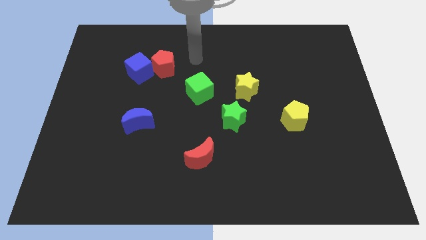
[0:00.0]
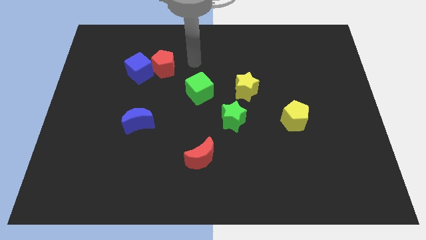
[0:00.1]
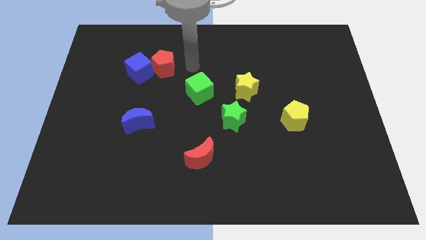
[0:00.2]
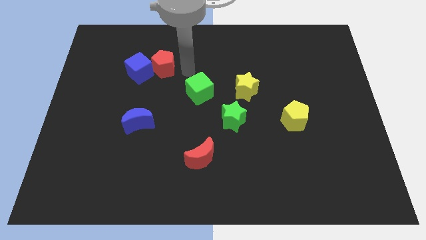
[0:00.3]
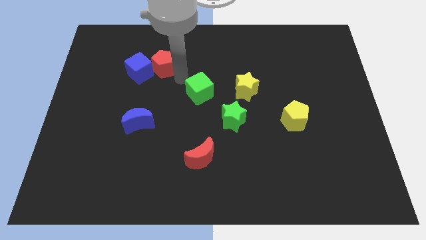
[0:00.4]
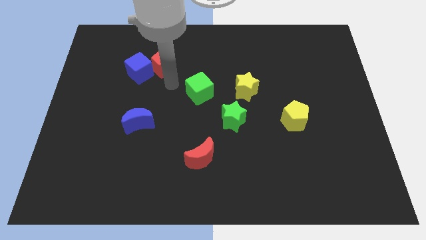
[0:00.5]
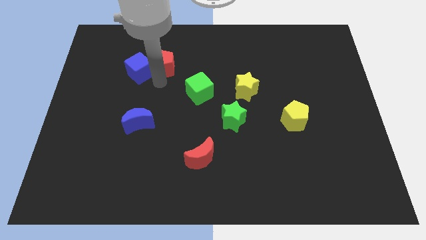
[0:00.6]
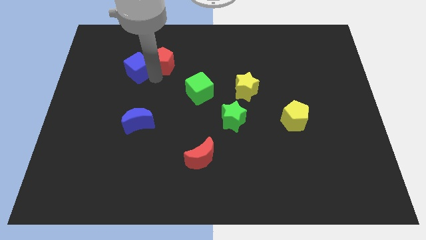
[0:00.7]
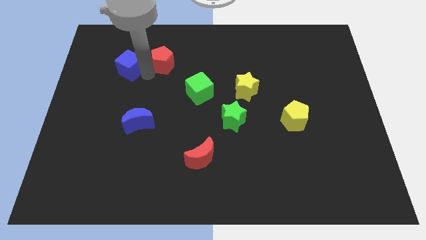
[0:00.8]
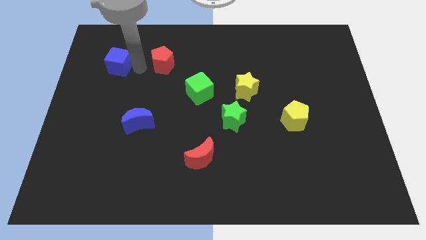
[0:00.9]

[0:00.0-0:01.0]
separate the red pentagon from the blue cube

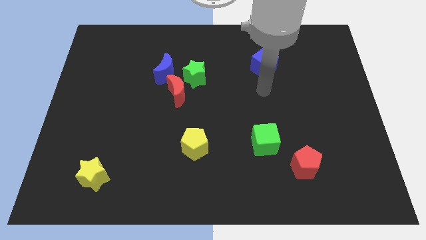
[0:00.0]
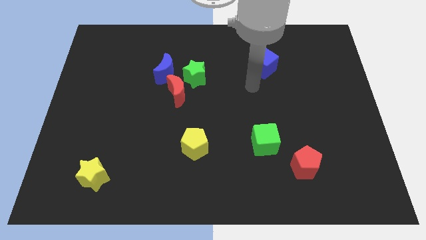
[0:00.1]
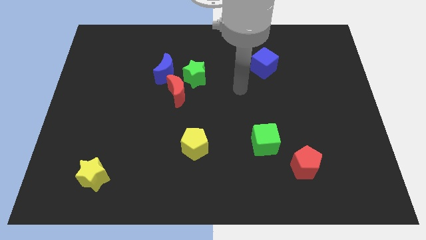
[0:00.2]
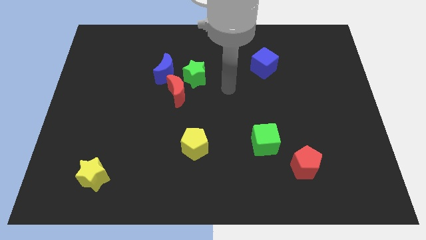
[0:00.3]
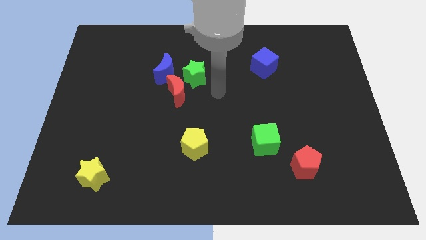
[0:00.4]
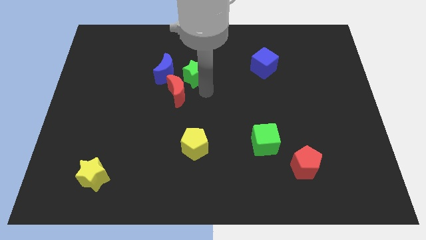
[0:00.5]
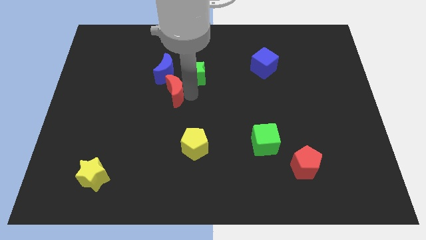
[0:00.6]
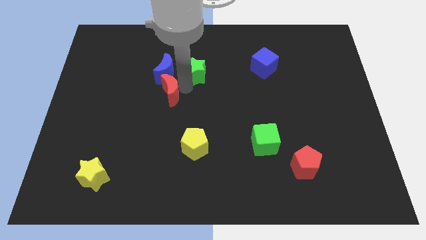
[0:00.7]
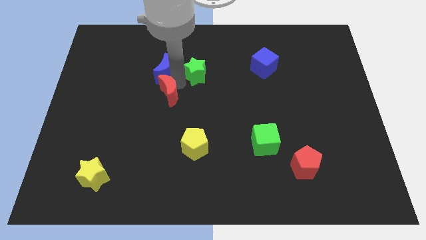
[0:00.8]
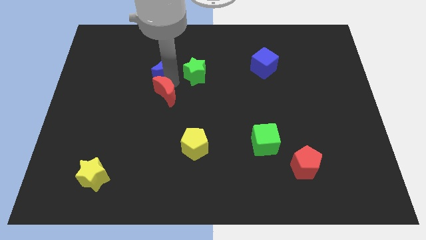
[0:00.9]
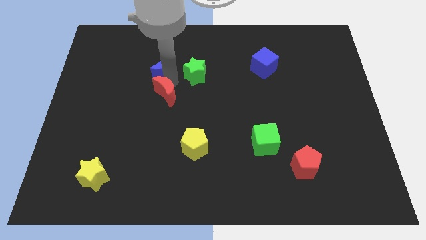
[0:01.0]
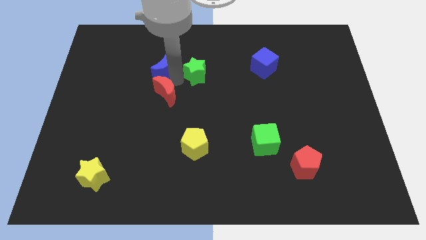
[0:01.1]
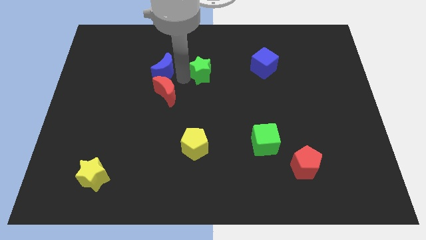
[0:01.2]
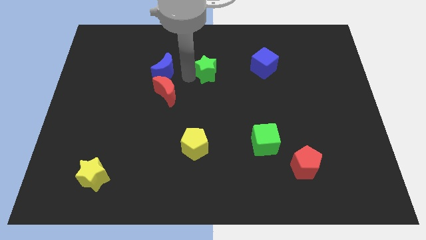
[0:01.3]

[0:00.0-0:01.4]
move the green star away from the red moon and blue moon

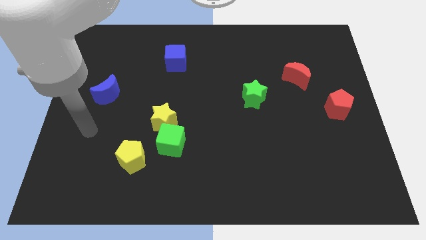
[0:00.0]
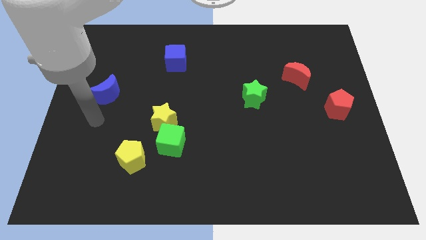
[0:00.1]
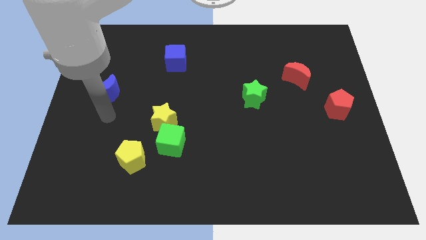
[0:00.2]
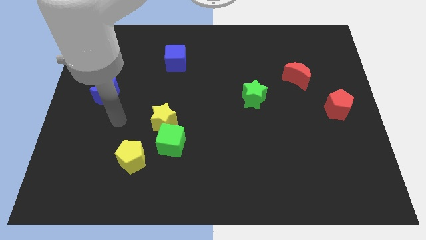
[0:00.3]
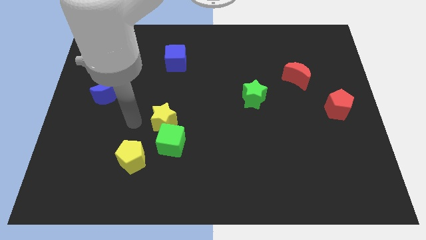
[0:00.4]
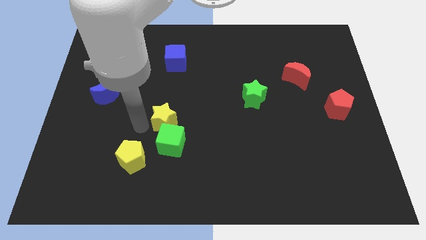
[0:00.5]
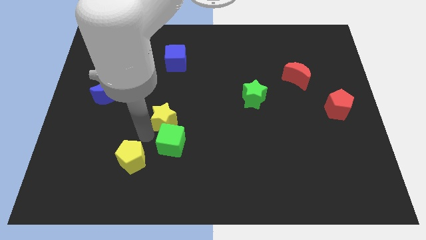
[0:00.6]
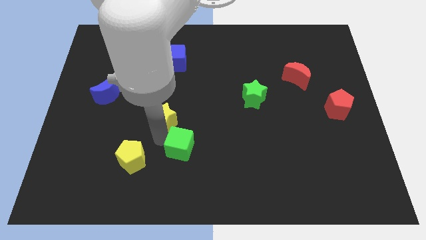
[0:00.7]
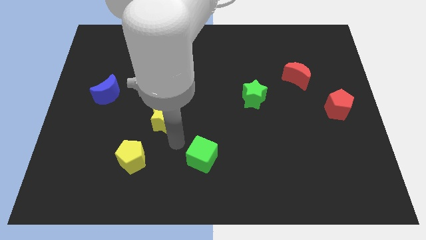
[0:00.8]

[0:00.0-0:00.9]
move the yellow star away from the green cube

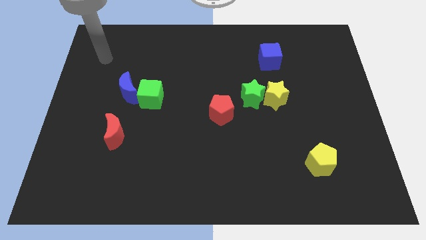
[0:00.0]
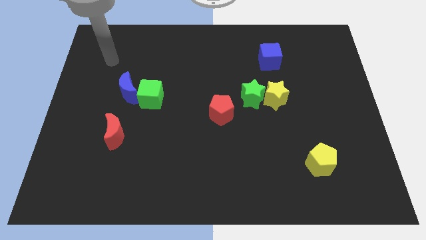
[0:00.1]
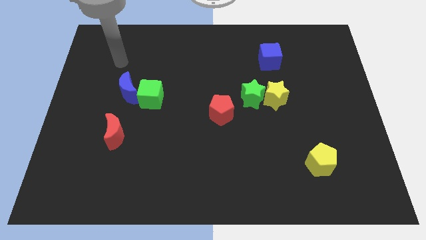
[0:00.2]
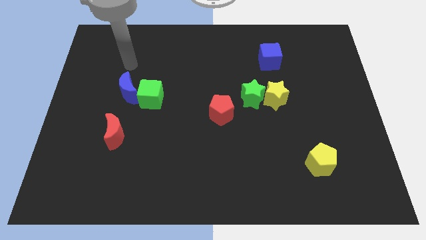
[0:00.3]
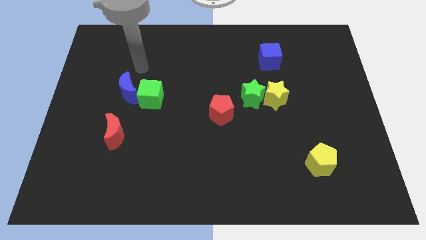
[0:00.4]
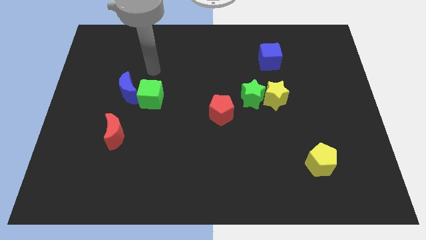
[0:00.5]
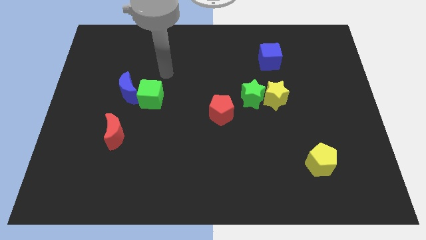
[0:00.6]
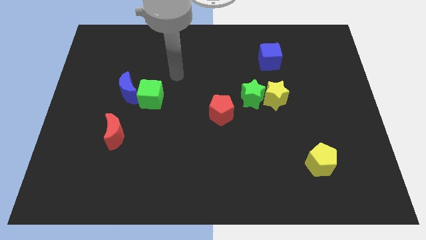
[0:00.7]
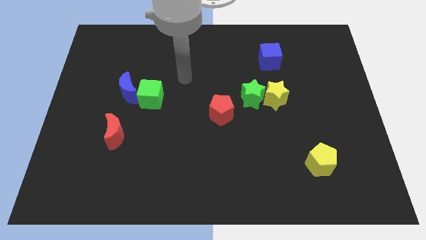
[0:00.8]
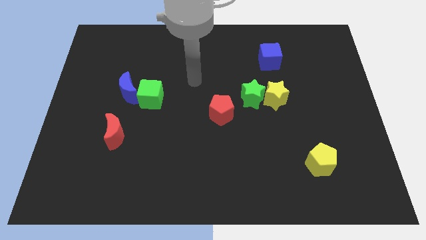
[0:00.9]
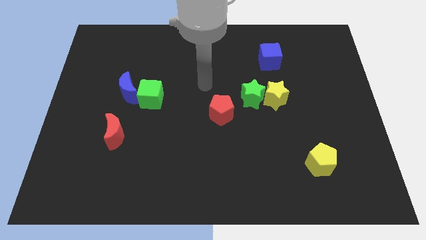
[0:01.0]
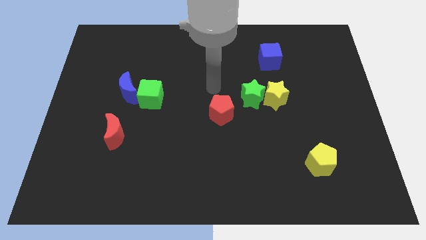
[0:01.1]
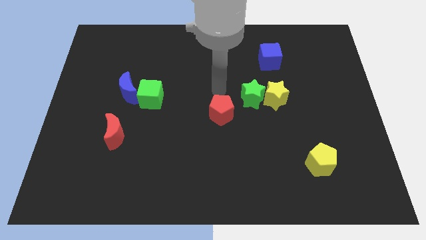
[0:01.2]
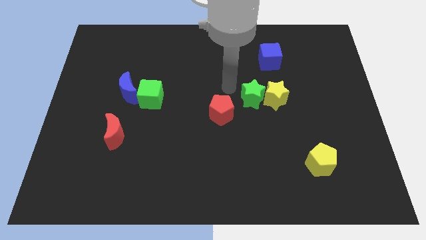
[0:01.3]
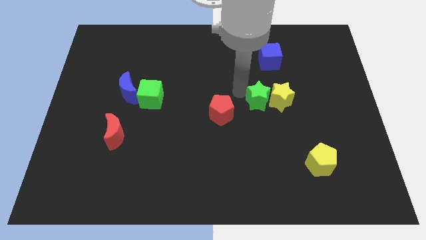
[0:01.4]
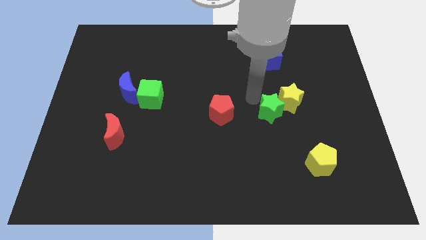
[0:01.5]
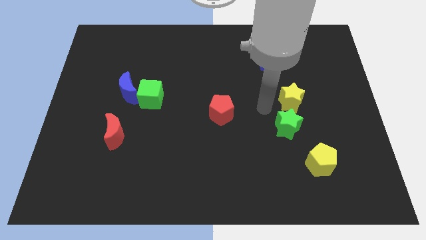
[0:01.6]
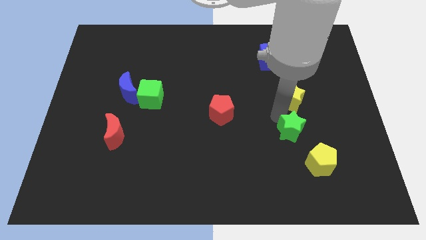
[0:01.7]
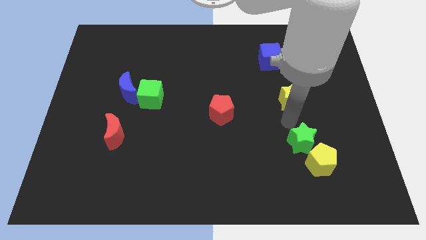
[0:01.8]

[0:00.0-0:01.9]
pull the yellow star apart from the green star

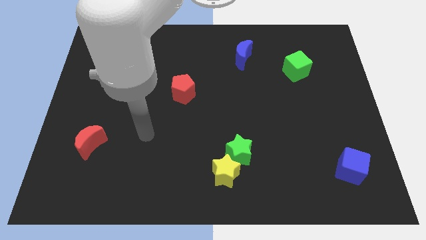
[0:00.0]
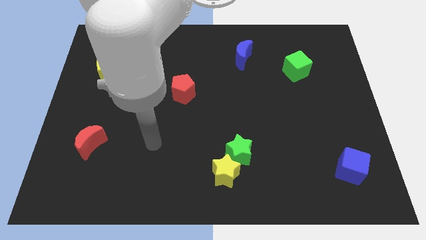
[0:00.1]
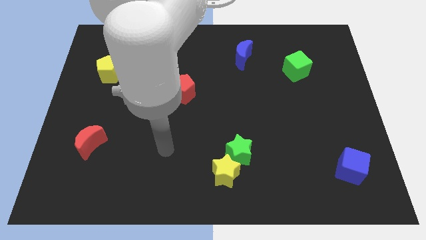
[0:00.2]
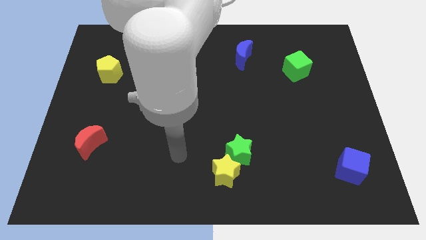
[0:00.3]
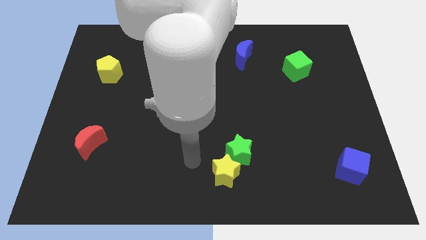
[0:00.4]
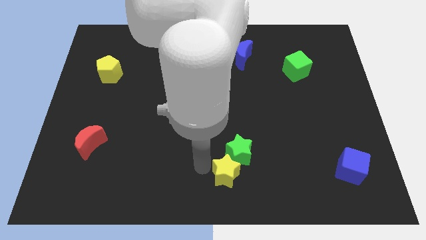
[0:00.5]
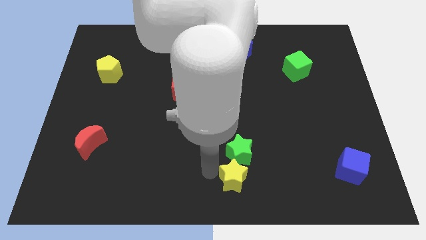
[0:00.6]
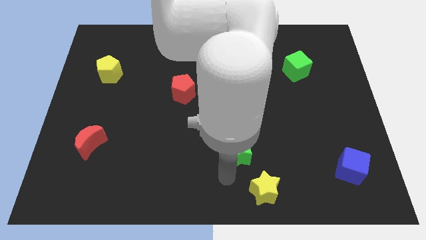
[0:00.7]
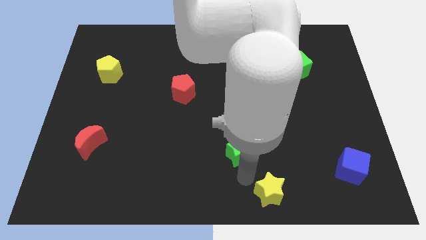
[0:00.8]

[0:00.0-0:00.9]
pull the green star apart from the yellow star

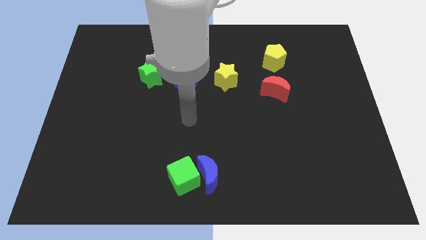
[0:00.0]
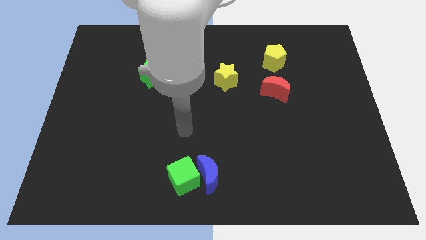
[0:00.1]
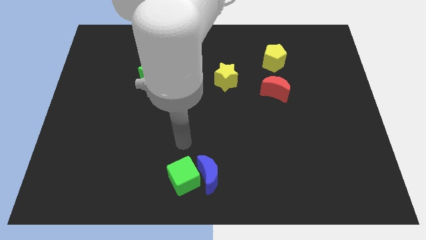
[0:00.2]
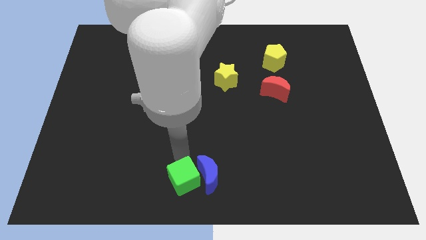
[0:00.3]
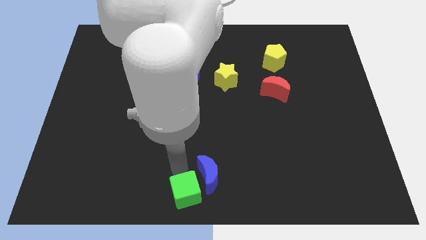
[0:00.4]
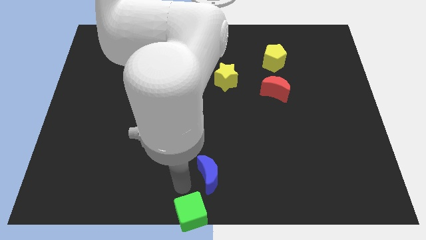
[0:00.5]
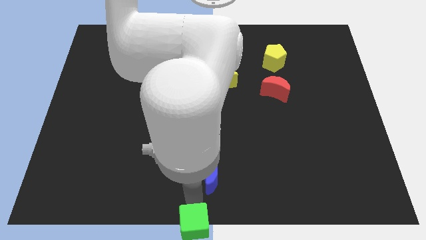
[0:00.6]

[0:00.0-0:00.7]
pull the blue moon apart from the green cube

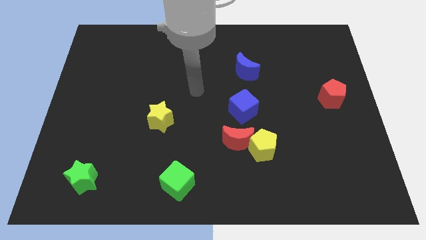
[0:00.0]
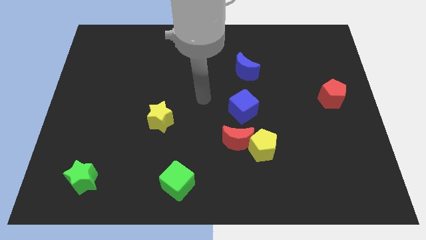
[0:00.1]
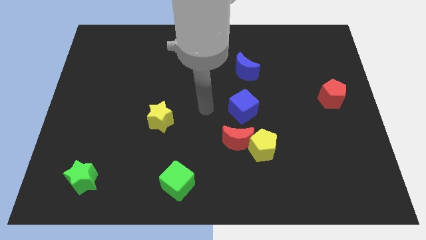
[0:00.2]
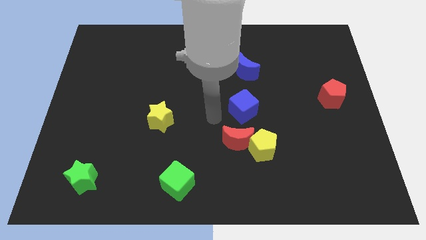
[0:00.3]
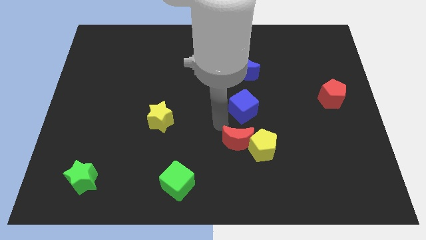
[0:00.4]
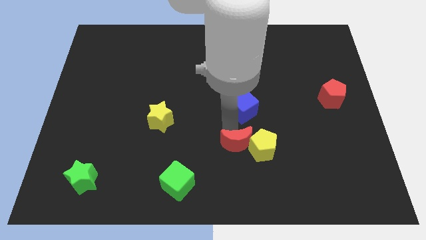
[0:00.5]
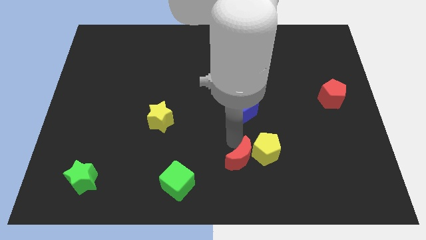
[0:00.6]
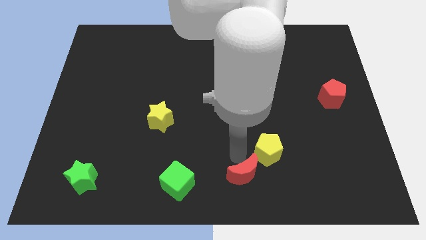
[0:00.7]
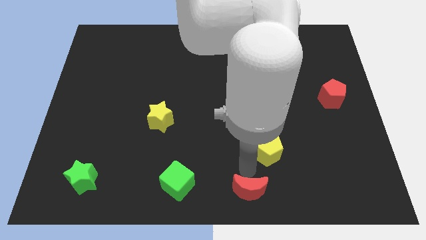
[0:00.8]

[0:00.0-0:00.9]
move the yellow pentagon away from the red moon

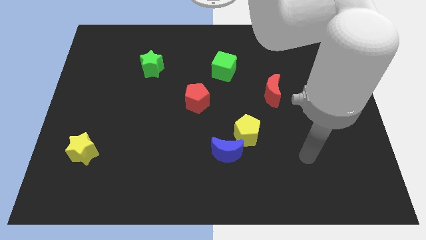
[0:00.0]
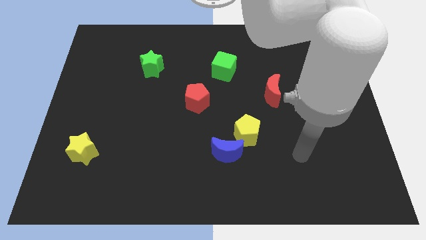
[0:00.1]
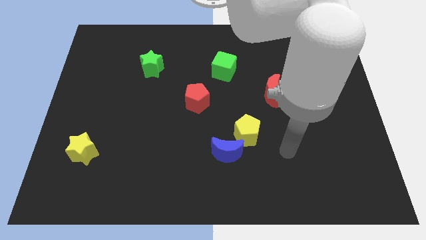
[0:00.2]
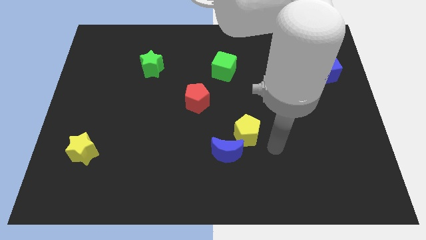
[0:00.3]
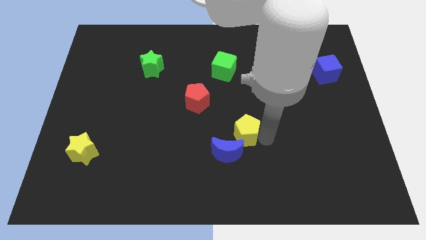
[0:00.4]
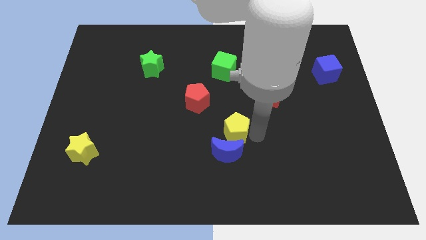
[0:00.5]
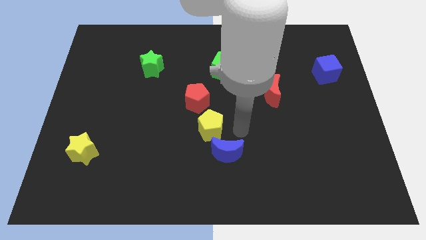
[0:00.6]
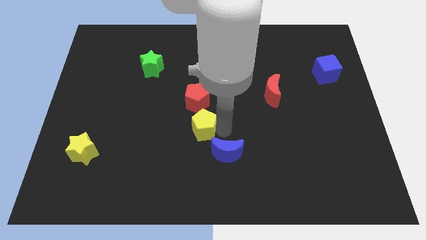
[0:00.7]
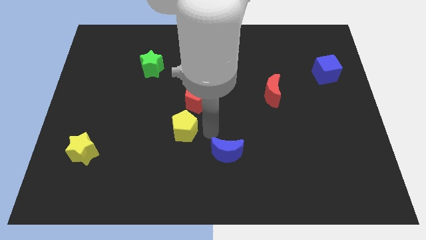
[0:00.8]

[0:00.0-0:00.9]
pull the blue moon apart from the yellow pentagon

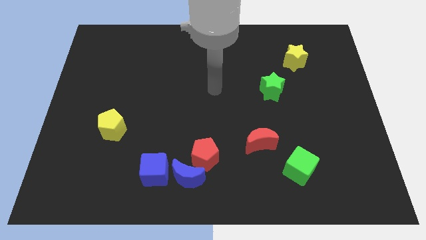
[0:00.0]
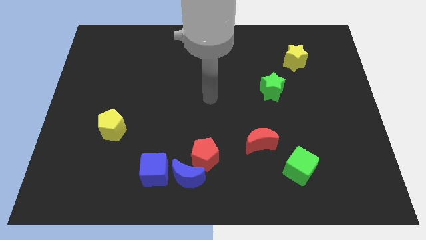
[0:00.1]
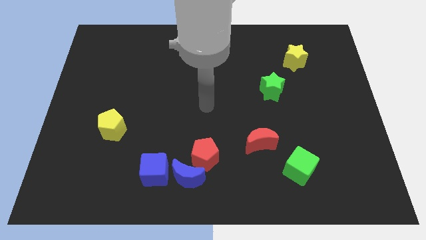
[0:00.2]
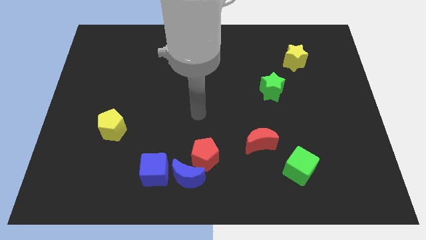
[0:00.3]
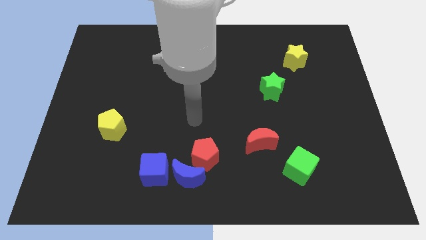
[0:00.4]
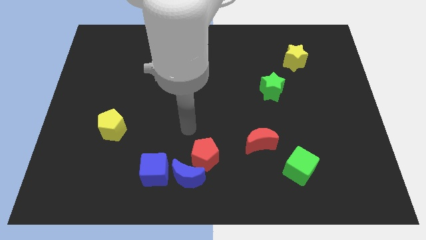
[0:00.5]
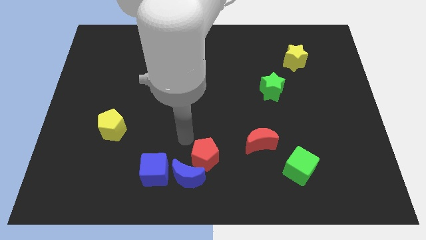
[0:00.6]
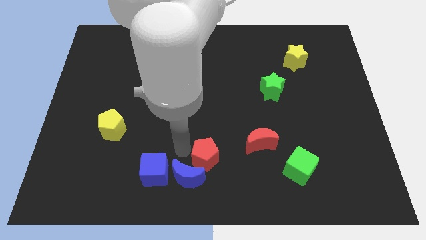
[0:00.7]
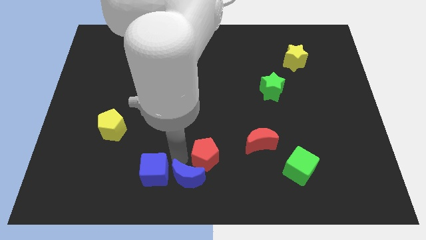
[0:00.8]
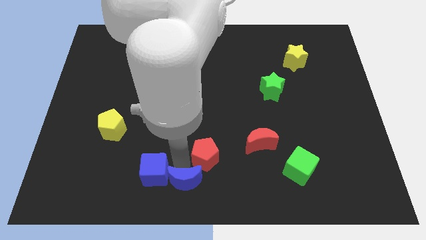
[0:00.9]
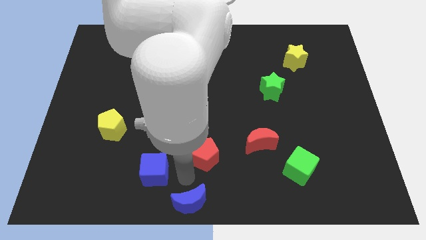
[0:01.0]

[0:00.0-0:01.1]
pull the red pentagon apart from the blue moon
